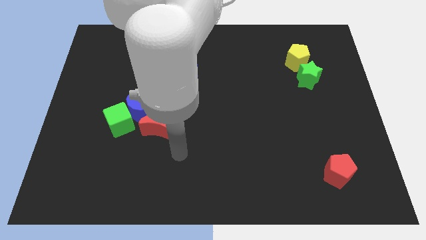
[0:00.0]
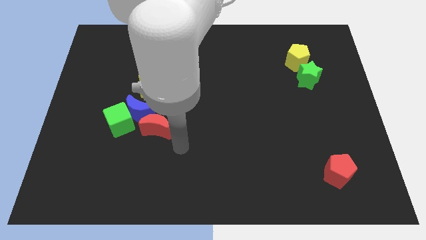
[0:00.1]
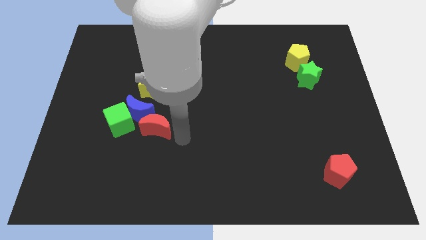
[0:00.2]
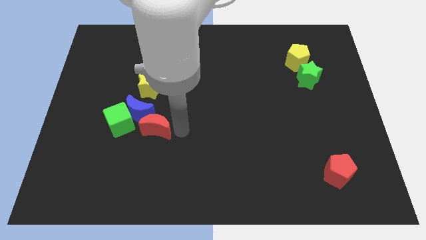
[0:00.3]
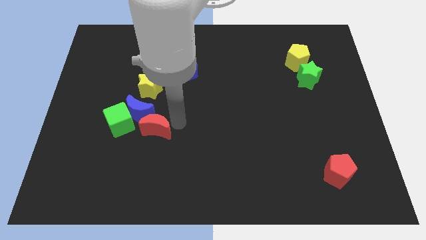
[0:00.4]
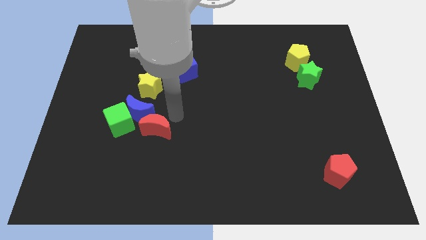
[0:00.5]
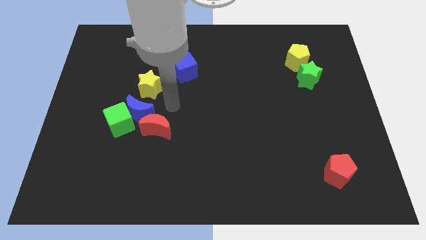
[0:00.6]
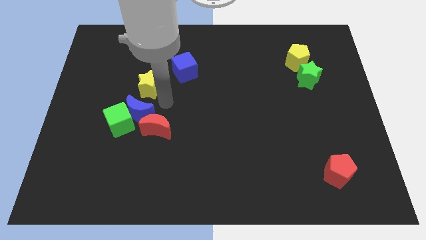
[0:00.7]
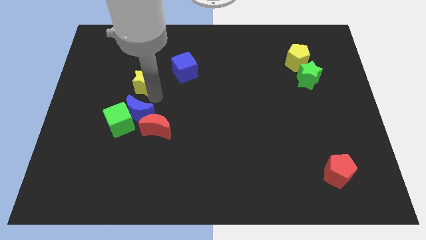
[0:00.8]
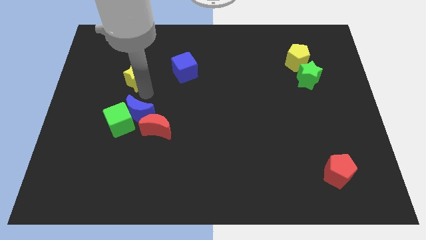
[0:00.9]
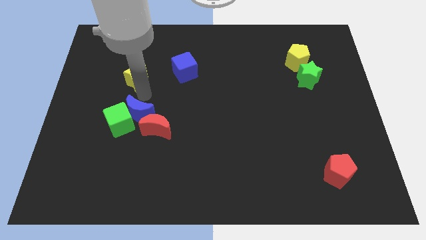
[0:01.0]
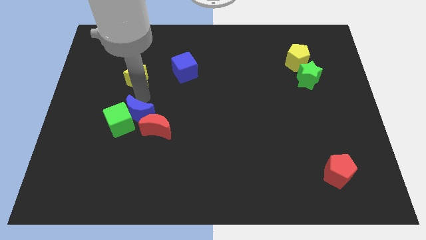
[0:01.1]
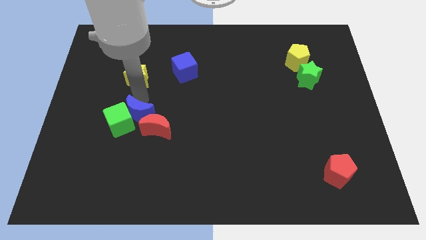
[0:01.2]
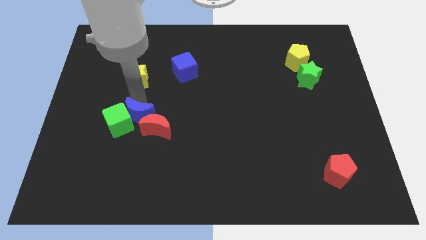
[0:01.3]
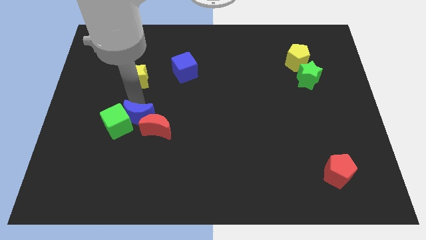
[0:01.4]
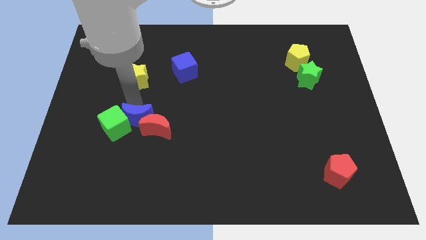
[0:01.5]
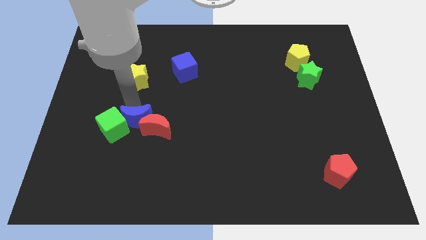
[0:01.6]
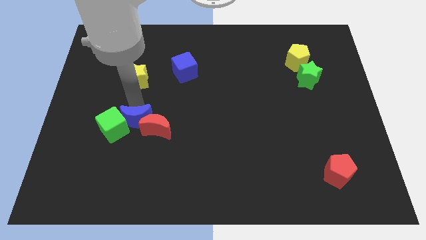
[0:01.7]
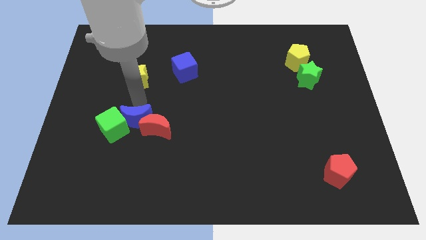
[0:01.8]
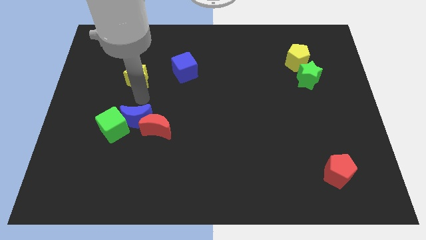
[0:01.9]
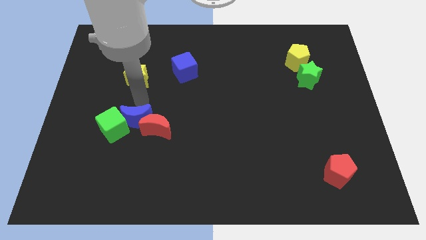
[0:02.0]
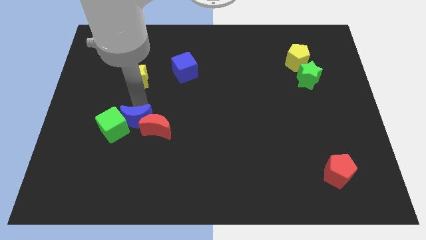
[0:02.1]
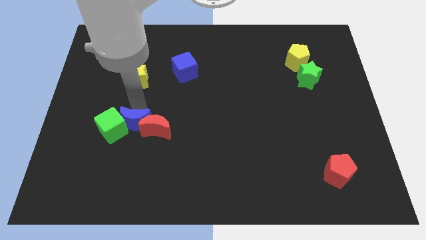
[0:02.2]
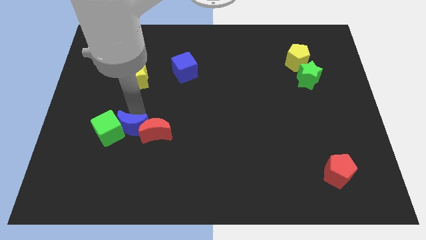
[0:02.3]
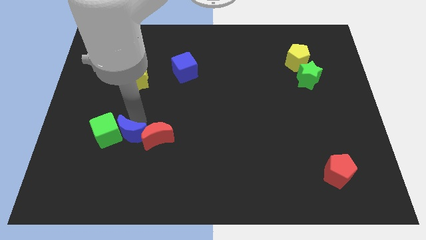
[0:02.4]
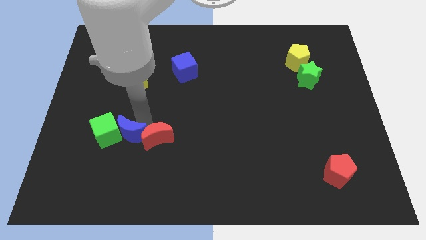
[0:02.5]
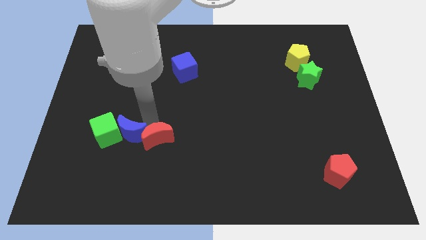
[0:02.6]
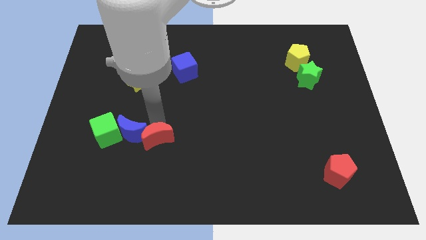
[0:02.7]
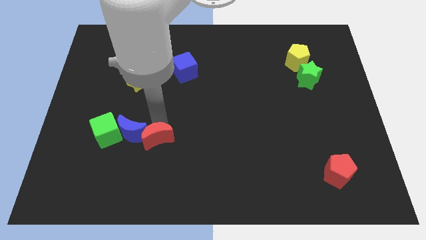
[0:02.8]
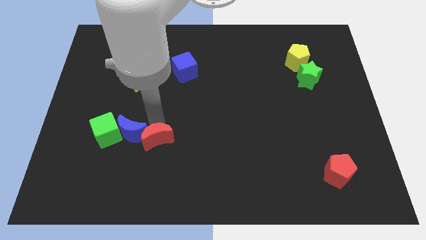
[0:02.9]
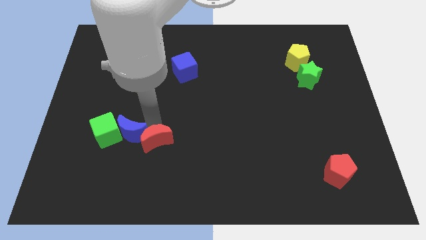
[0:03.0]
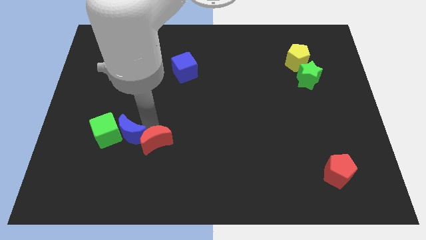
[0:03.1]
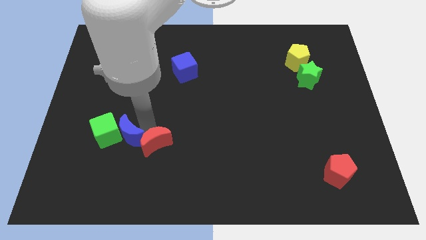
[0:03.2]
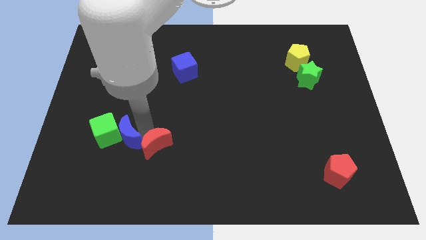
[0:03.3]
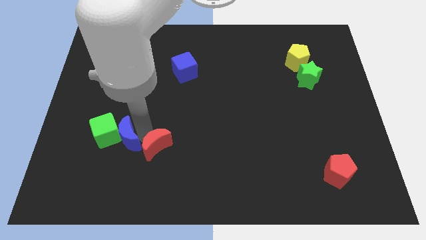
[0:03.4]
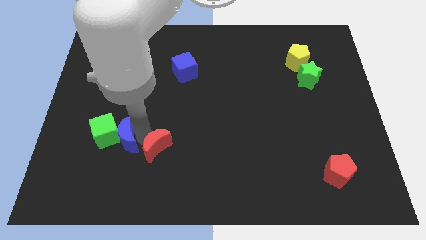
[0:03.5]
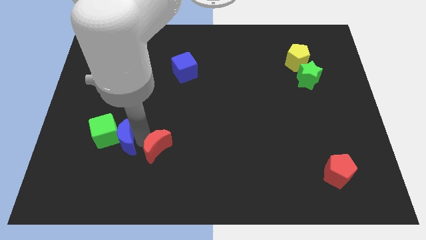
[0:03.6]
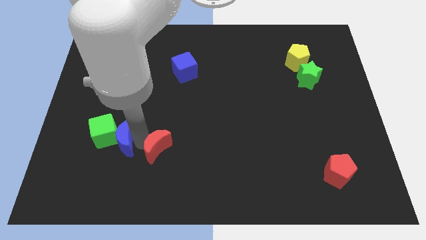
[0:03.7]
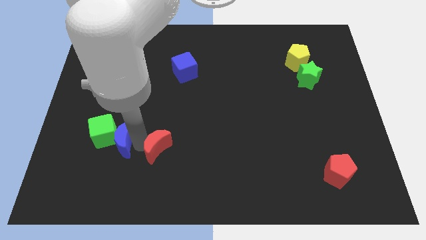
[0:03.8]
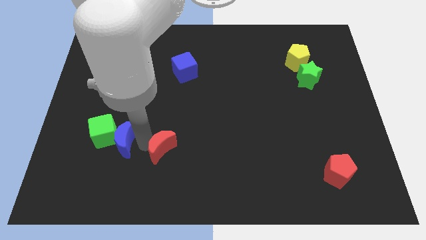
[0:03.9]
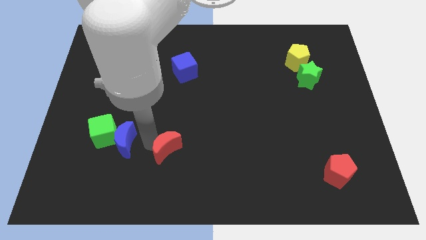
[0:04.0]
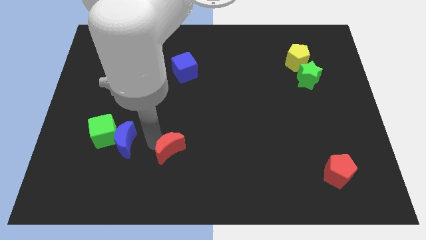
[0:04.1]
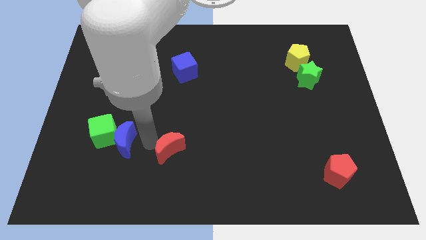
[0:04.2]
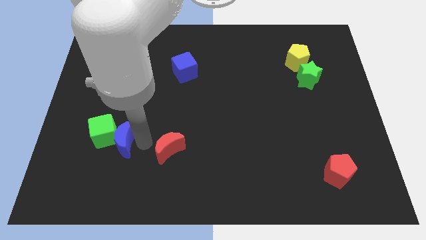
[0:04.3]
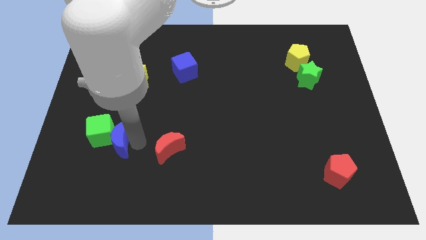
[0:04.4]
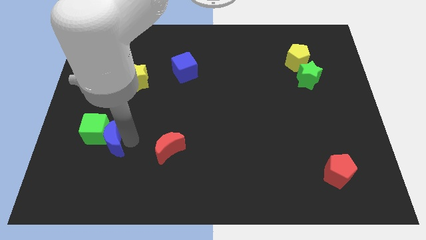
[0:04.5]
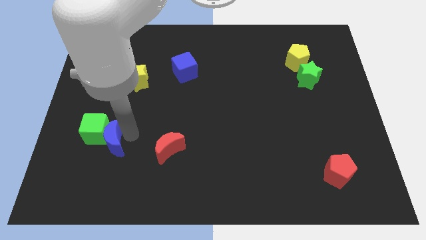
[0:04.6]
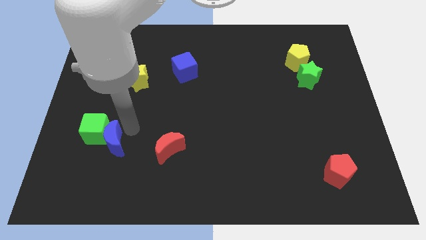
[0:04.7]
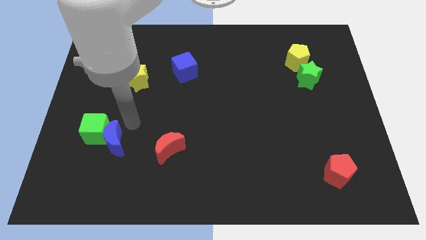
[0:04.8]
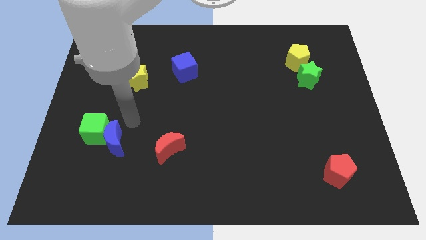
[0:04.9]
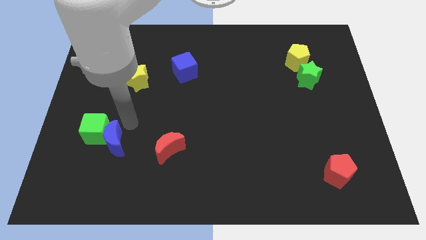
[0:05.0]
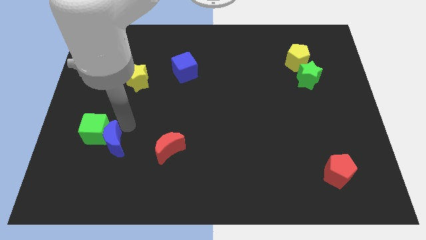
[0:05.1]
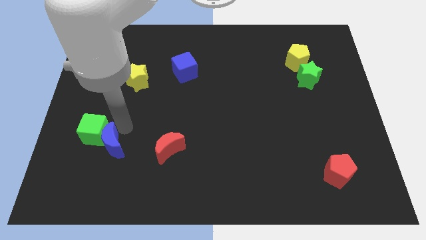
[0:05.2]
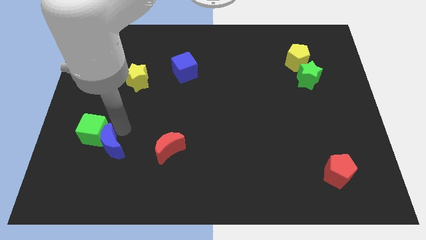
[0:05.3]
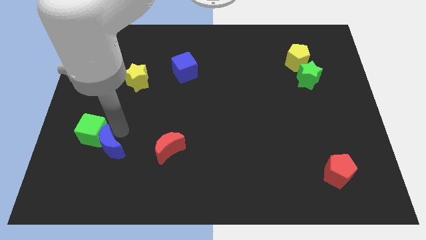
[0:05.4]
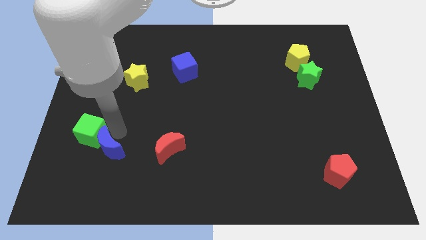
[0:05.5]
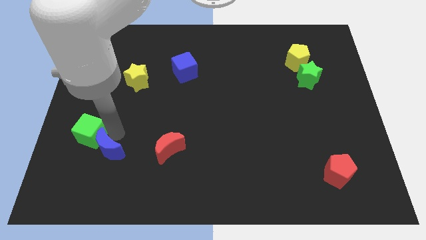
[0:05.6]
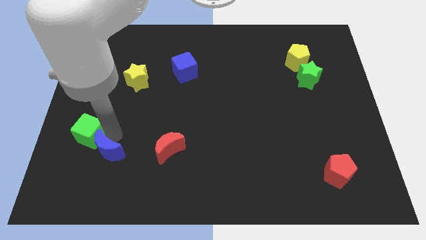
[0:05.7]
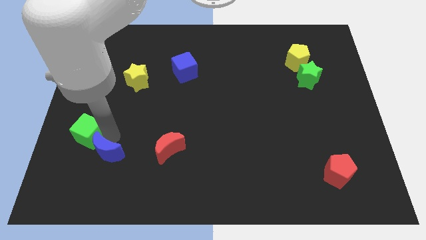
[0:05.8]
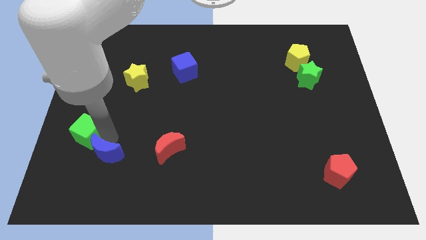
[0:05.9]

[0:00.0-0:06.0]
move the blue moon away from the green cube, red moon, and yellow star

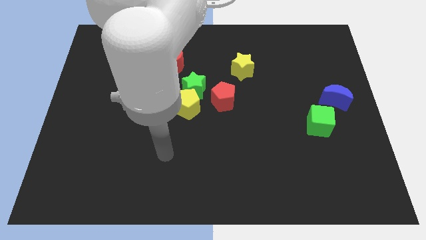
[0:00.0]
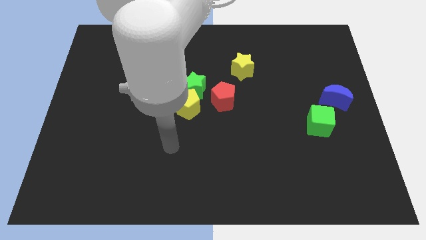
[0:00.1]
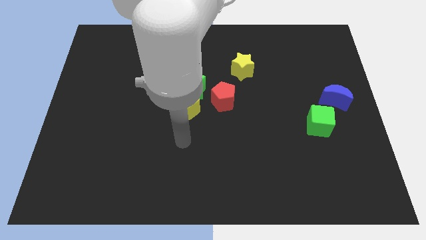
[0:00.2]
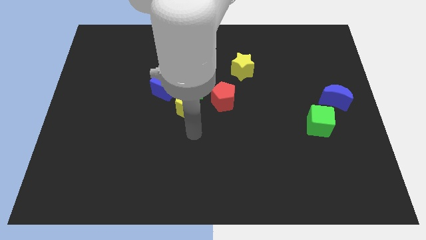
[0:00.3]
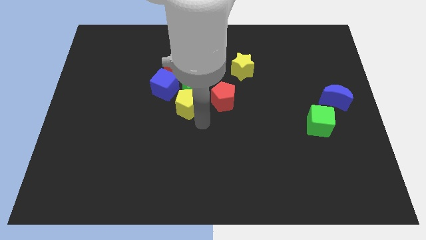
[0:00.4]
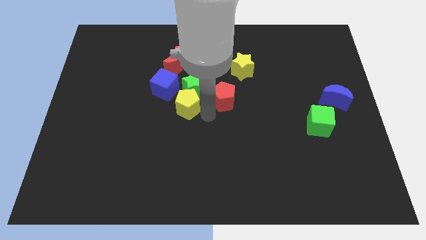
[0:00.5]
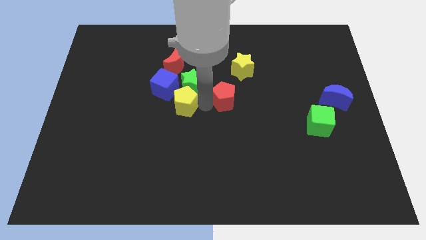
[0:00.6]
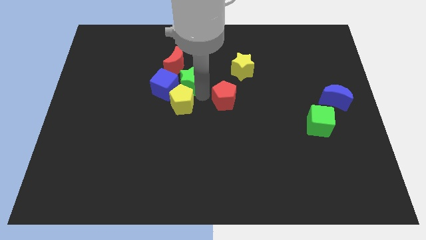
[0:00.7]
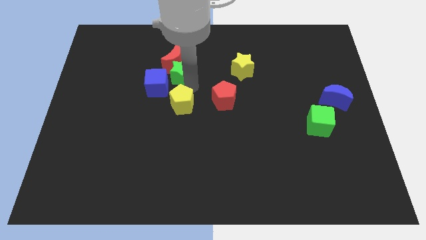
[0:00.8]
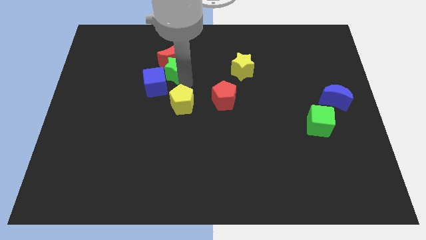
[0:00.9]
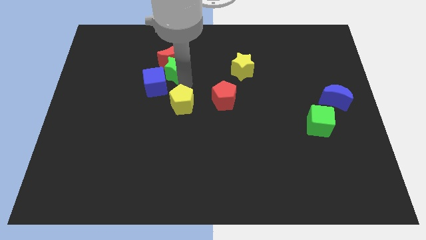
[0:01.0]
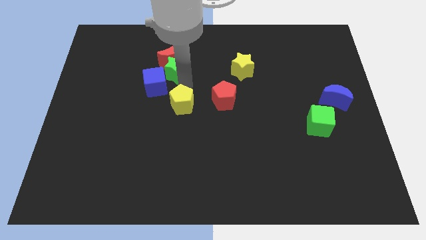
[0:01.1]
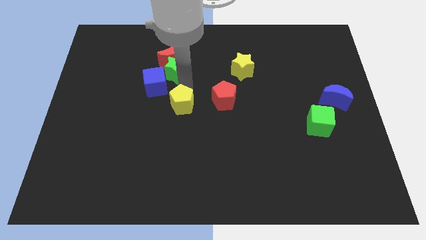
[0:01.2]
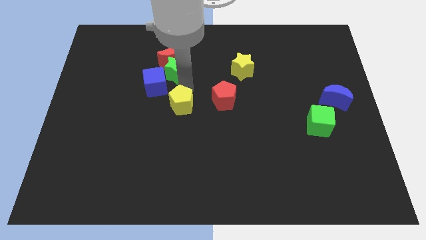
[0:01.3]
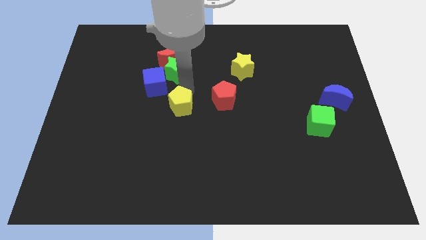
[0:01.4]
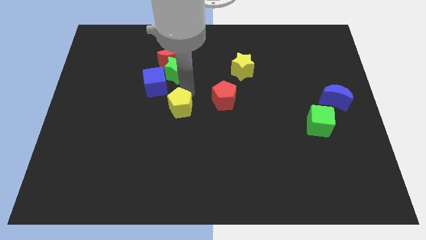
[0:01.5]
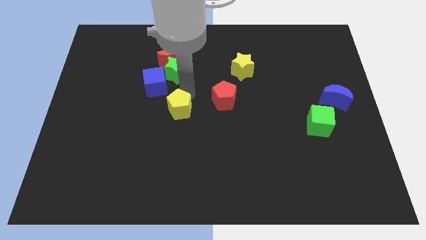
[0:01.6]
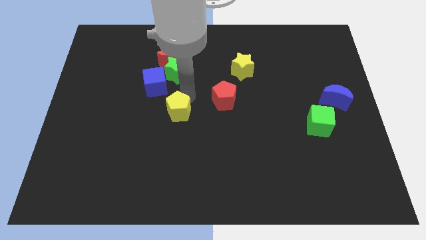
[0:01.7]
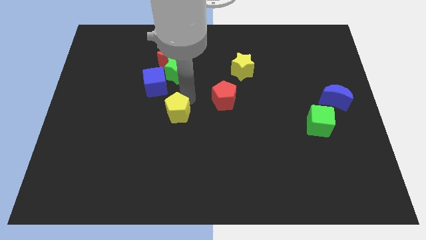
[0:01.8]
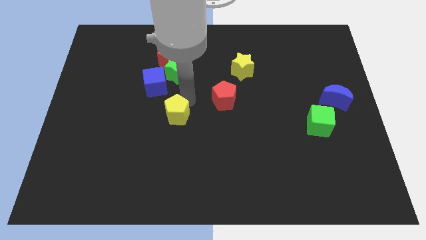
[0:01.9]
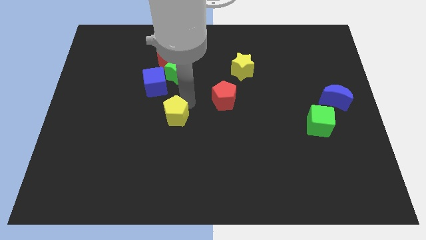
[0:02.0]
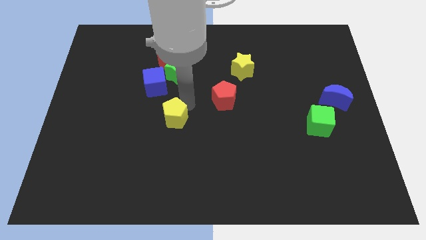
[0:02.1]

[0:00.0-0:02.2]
separate the yellow pentagon from the group

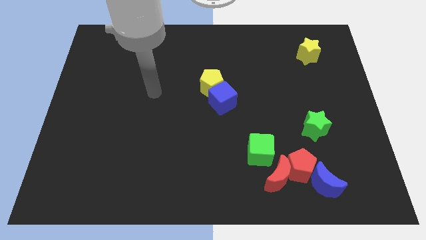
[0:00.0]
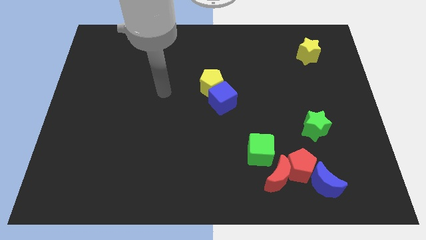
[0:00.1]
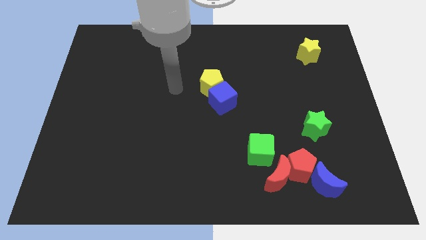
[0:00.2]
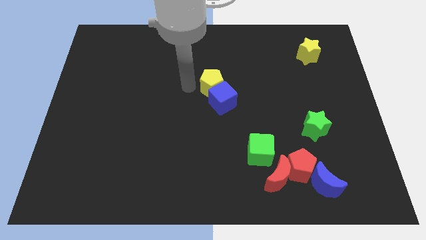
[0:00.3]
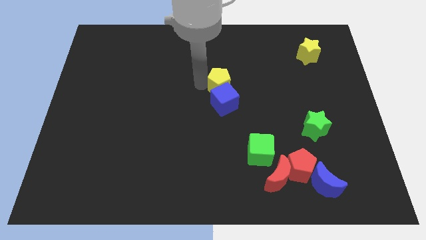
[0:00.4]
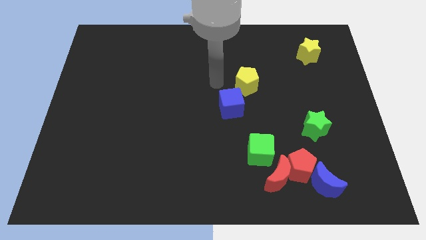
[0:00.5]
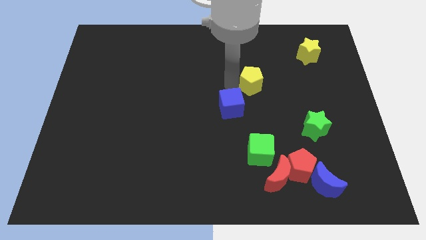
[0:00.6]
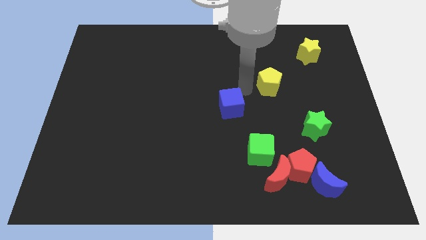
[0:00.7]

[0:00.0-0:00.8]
separate the blue cube from the yellow pentagon

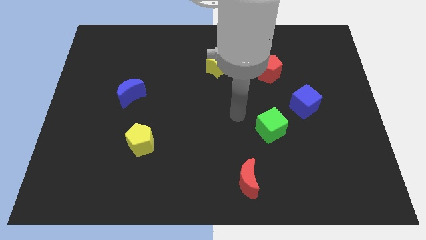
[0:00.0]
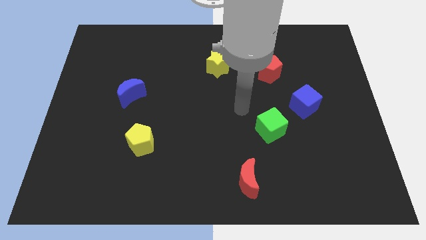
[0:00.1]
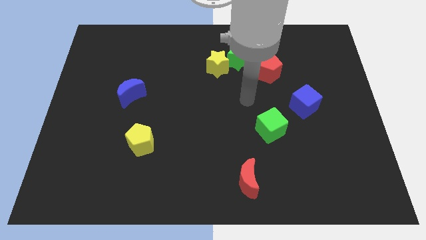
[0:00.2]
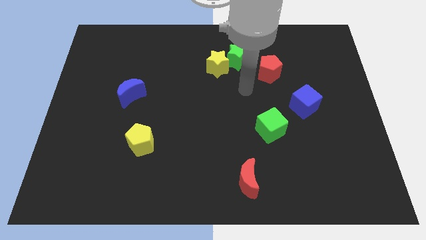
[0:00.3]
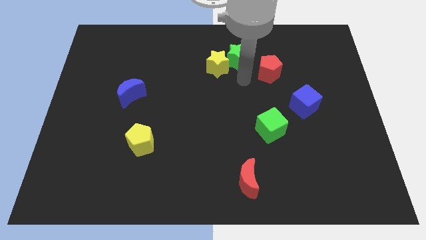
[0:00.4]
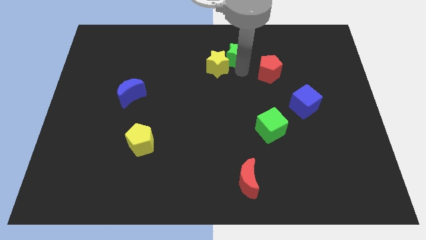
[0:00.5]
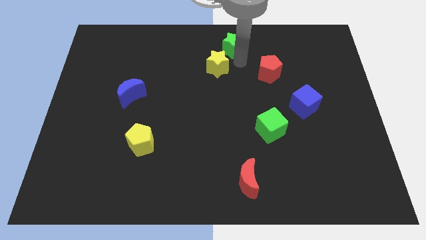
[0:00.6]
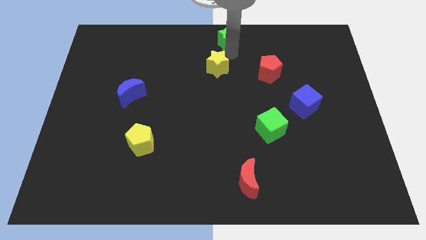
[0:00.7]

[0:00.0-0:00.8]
move the yellow star away from the green star
